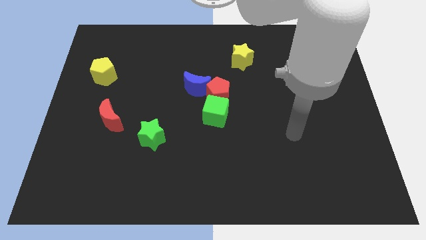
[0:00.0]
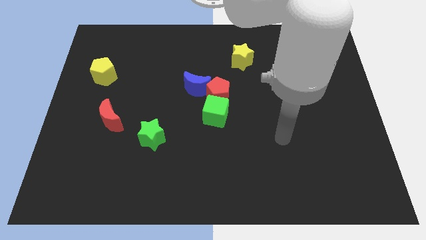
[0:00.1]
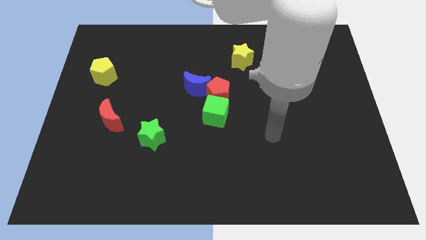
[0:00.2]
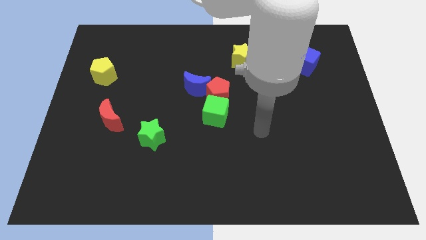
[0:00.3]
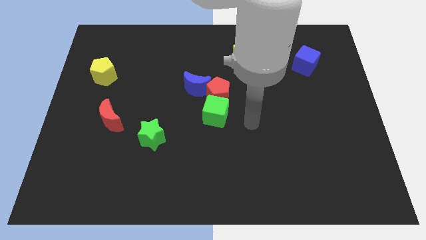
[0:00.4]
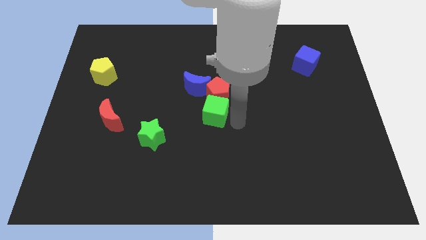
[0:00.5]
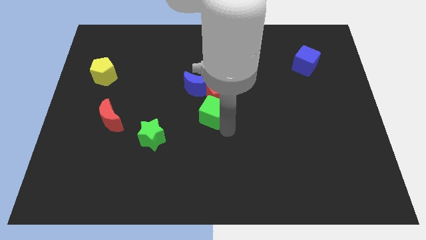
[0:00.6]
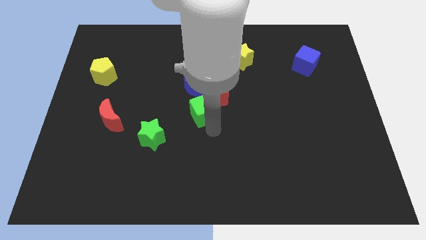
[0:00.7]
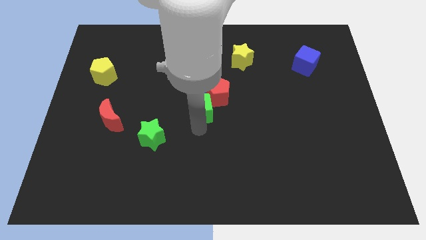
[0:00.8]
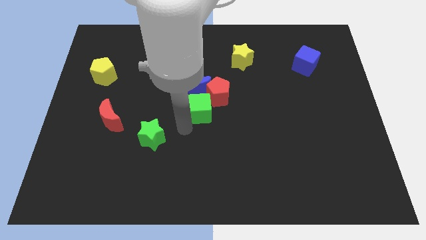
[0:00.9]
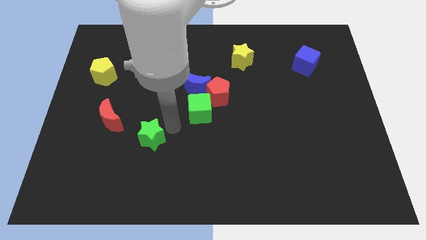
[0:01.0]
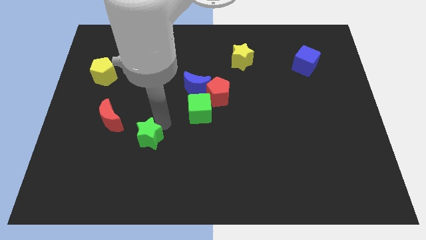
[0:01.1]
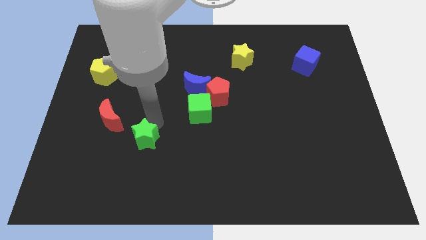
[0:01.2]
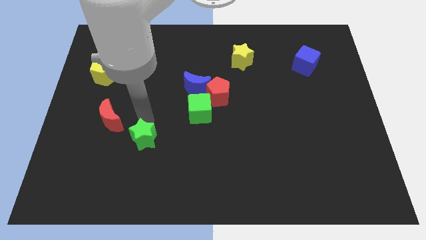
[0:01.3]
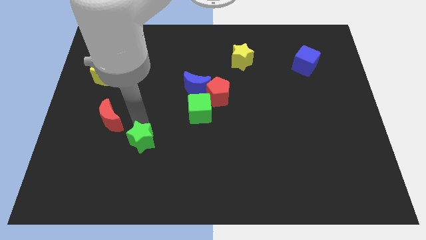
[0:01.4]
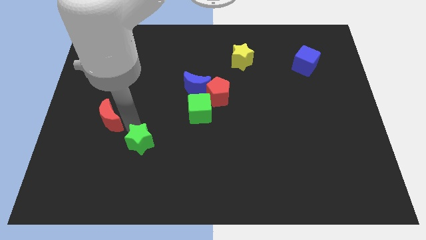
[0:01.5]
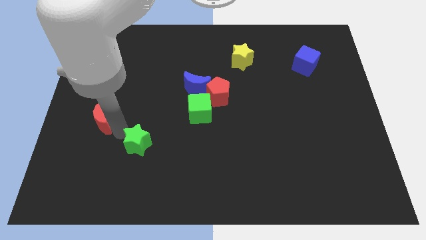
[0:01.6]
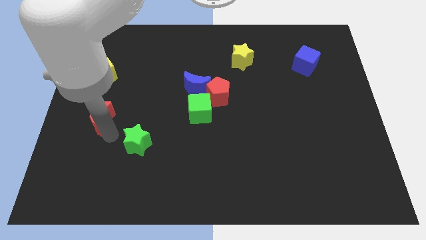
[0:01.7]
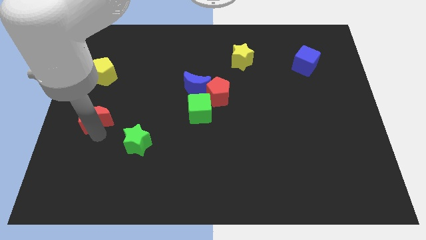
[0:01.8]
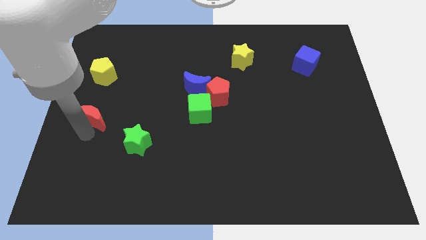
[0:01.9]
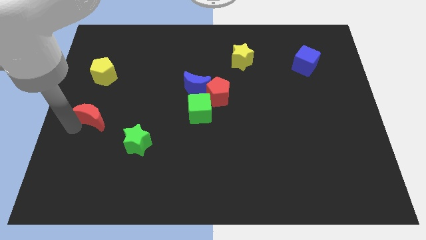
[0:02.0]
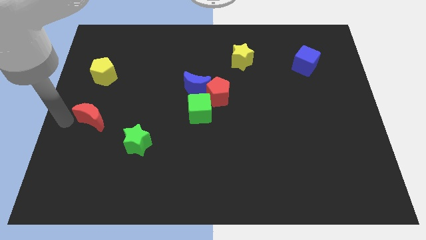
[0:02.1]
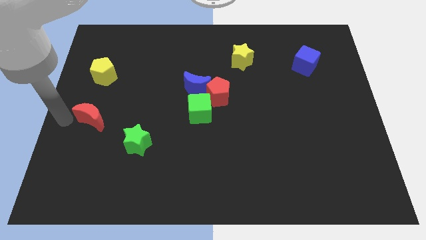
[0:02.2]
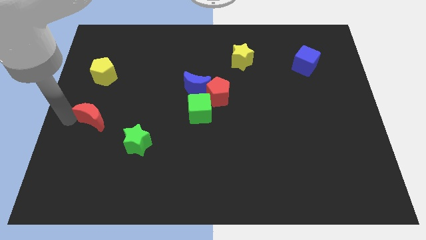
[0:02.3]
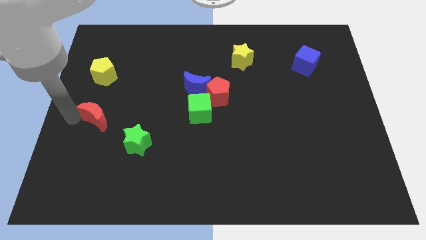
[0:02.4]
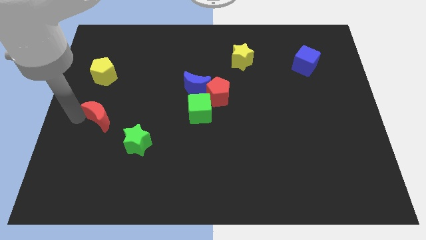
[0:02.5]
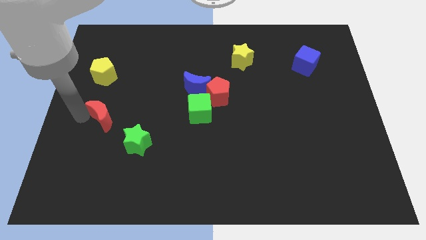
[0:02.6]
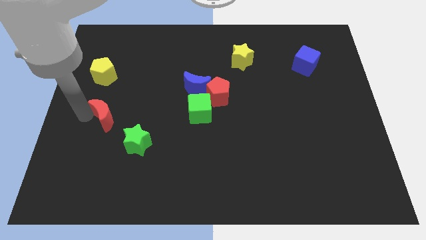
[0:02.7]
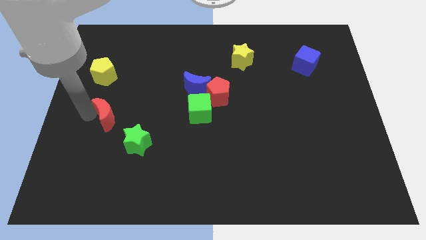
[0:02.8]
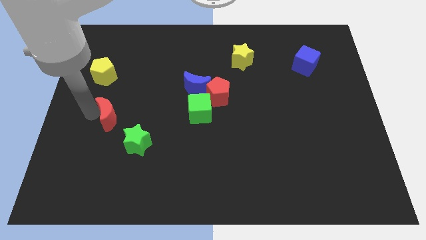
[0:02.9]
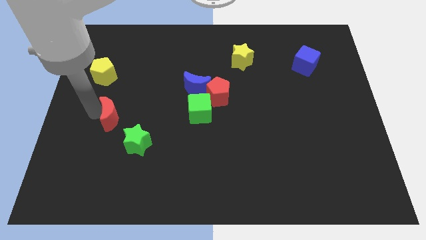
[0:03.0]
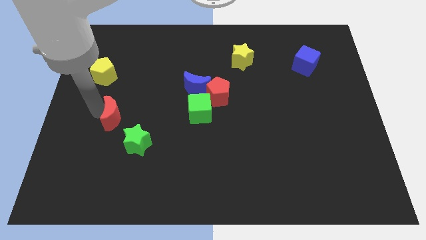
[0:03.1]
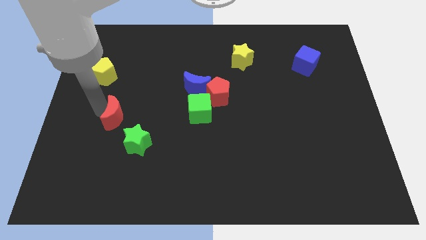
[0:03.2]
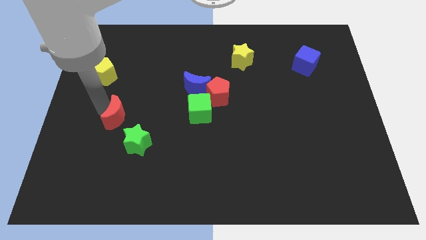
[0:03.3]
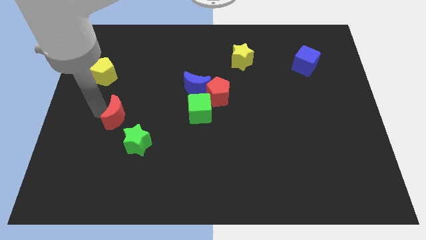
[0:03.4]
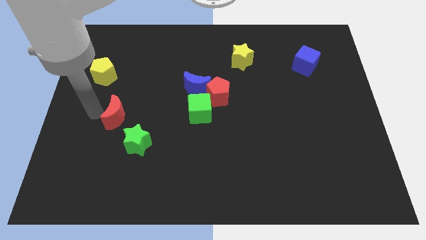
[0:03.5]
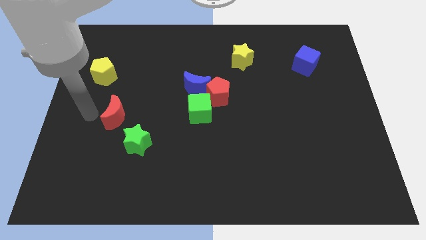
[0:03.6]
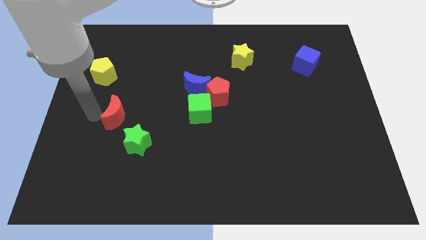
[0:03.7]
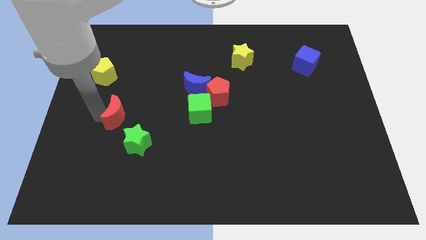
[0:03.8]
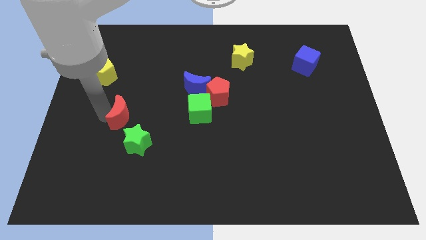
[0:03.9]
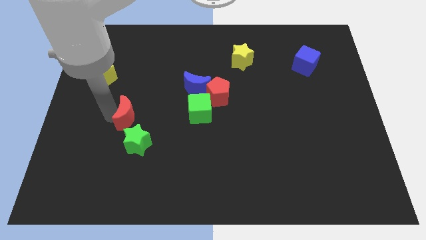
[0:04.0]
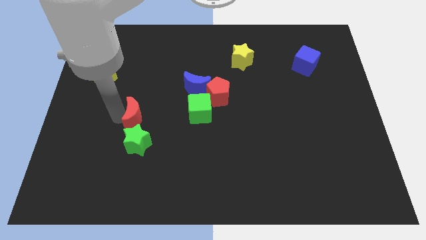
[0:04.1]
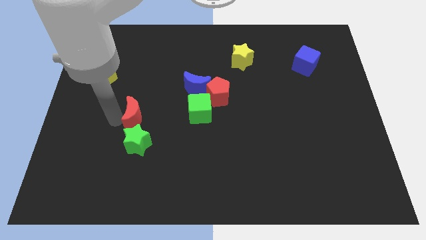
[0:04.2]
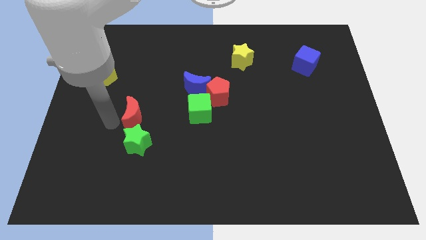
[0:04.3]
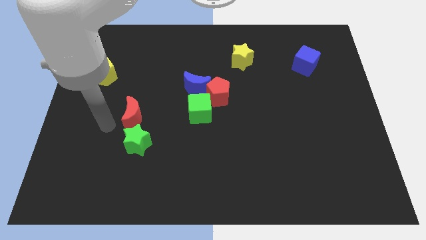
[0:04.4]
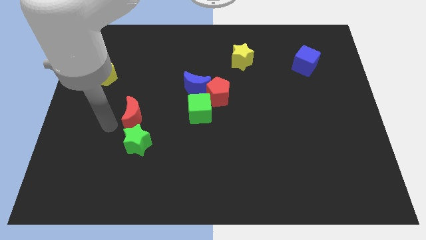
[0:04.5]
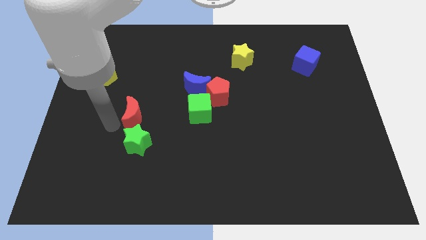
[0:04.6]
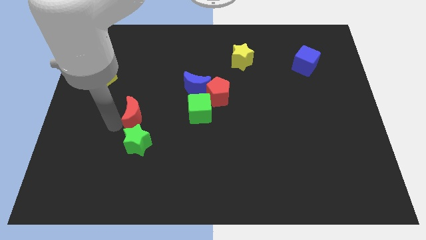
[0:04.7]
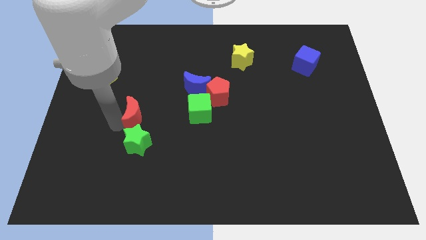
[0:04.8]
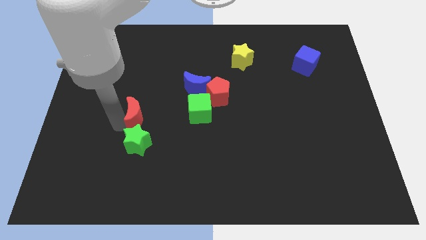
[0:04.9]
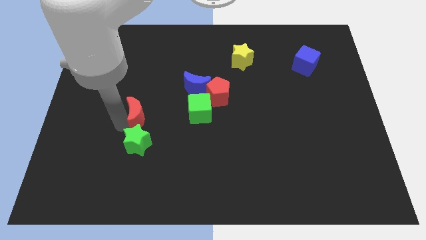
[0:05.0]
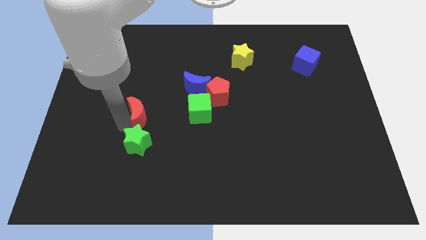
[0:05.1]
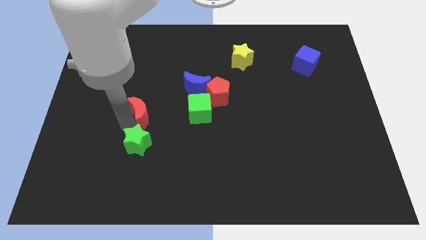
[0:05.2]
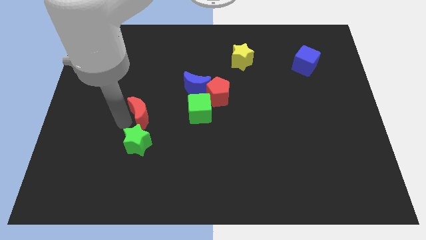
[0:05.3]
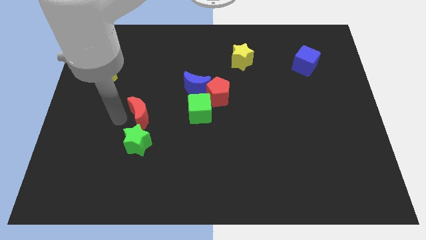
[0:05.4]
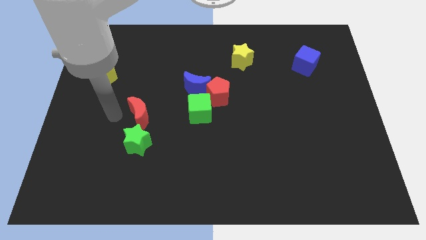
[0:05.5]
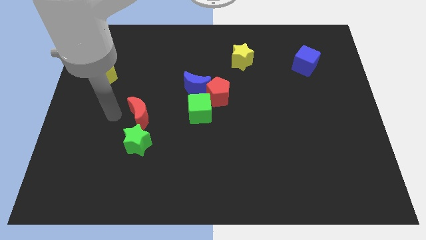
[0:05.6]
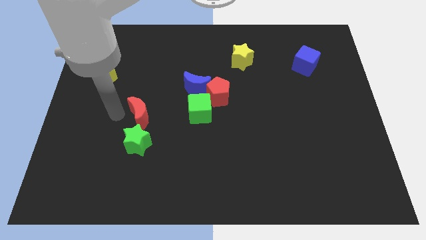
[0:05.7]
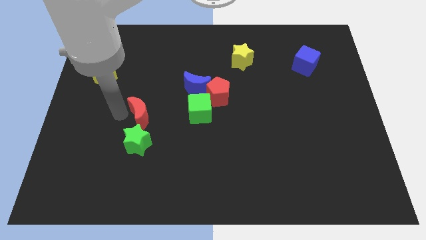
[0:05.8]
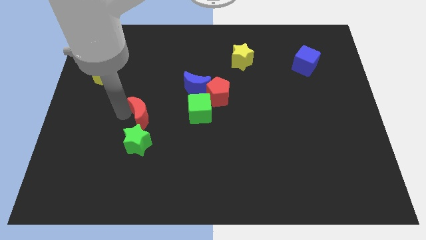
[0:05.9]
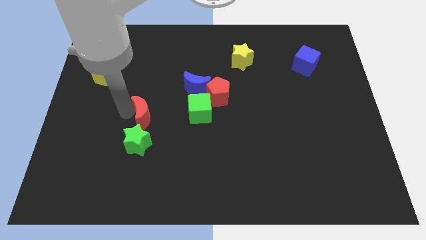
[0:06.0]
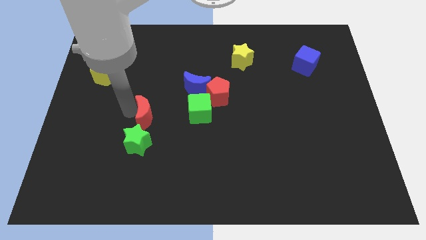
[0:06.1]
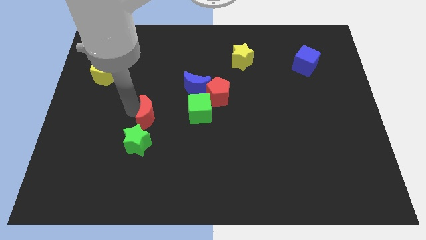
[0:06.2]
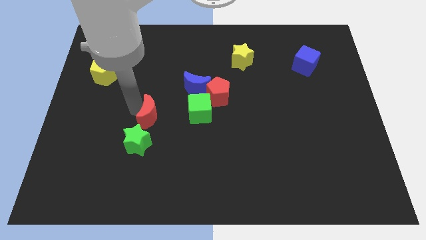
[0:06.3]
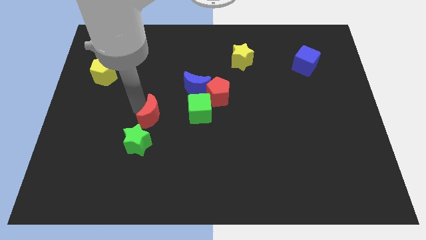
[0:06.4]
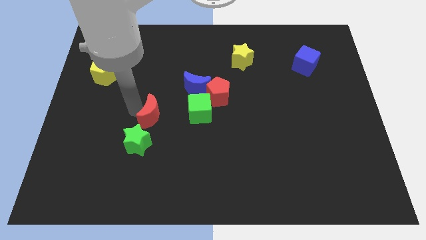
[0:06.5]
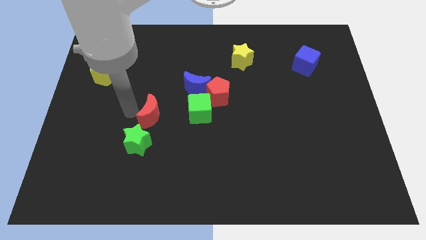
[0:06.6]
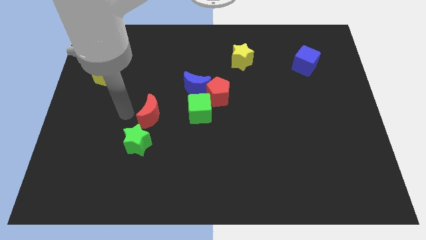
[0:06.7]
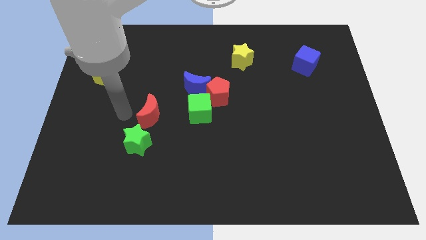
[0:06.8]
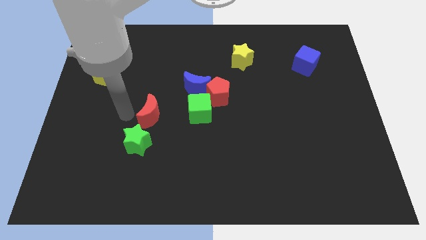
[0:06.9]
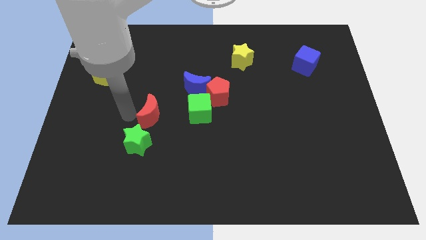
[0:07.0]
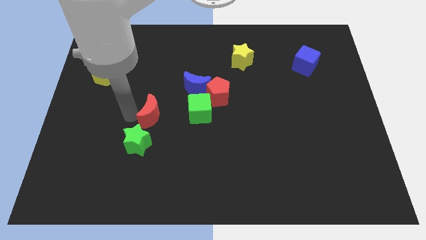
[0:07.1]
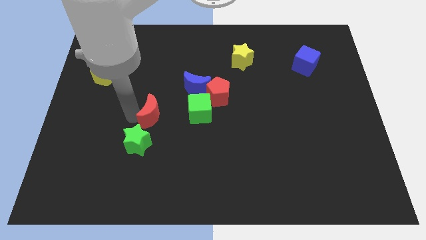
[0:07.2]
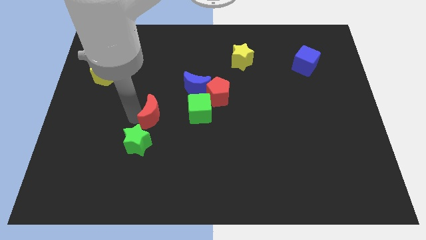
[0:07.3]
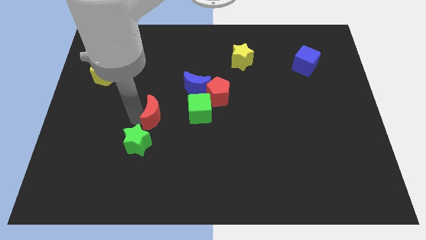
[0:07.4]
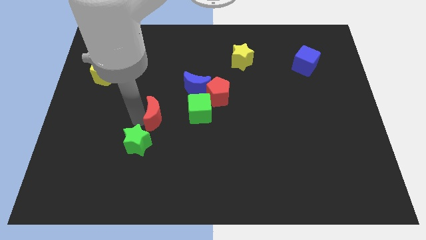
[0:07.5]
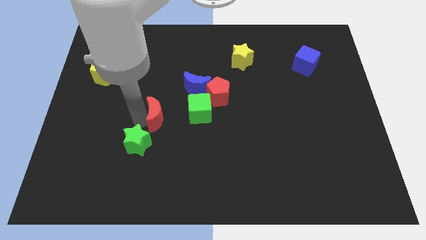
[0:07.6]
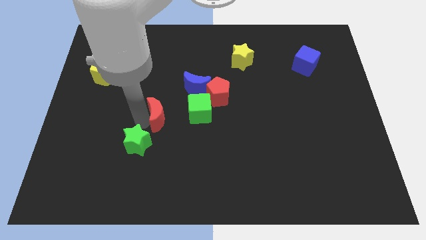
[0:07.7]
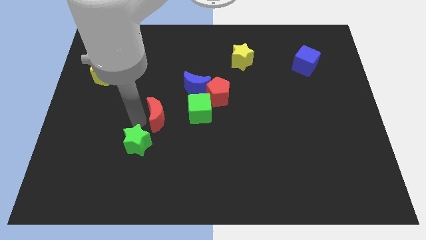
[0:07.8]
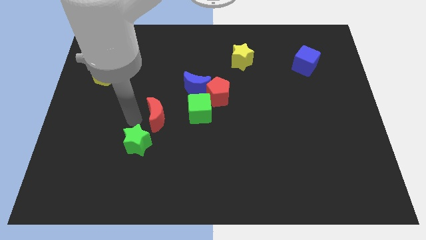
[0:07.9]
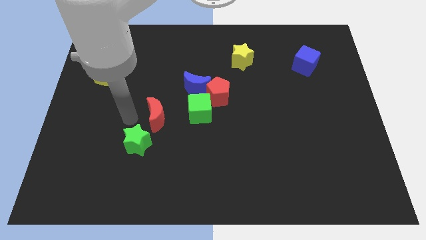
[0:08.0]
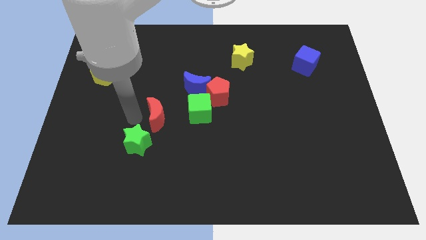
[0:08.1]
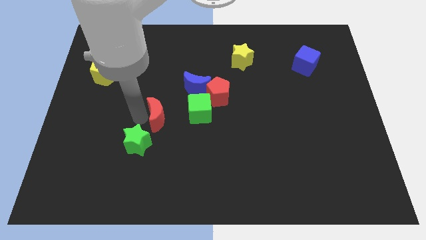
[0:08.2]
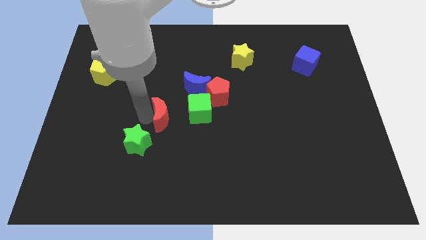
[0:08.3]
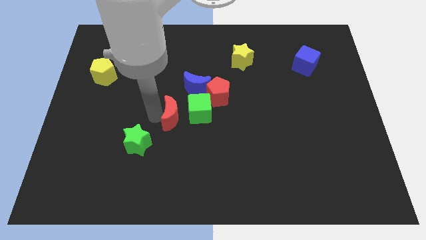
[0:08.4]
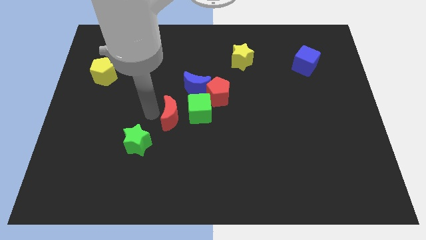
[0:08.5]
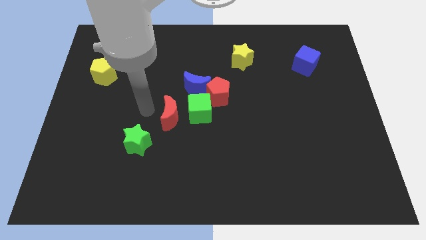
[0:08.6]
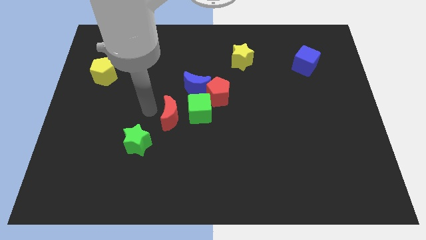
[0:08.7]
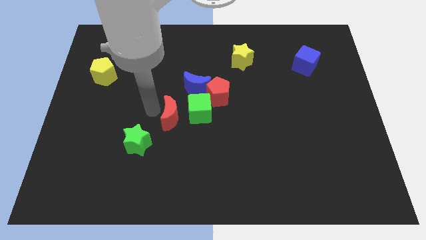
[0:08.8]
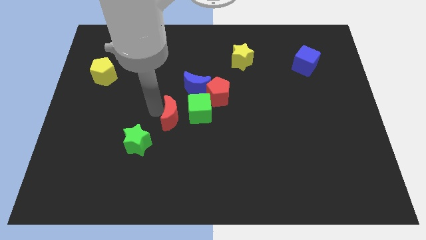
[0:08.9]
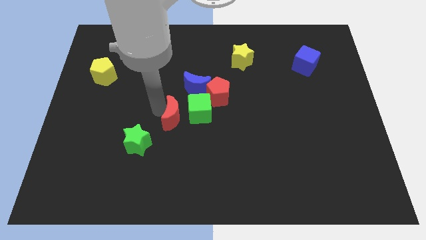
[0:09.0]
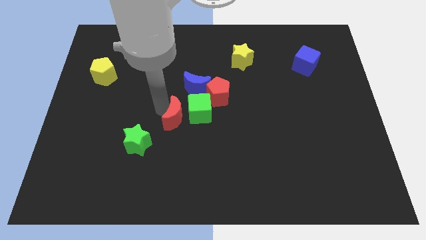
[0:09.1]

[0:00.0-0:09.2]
slide the red moon to the bottom of the blue moon
